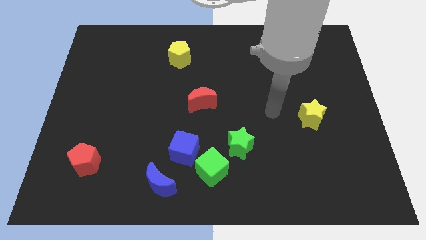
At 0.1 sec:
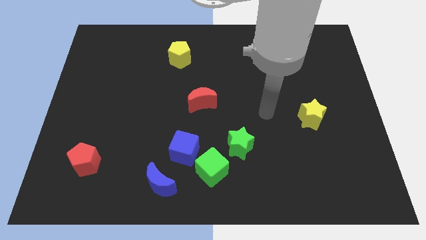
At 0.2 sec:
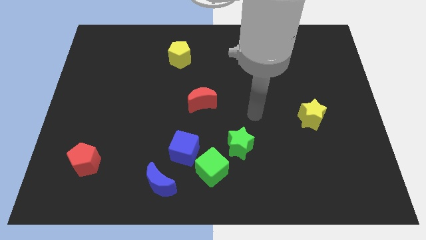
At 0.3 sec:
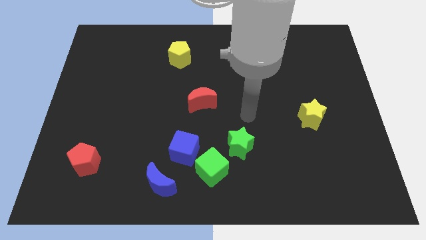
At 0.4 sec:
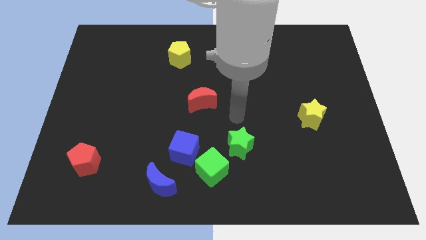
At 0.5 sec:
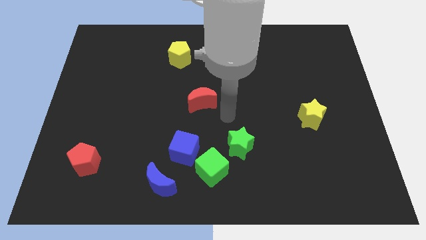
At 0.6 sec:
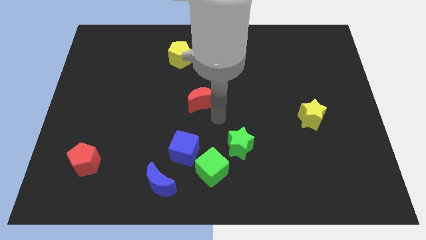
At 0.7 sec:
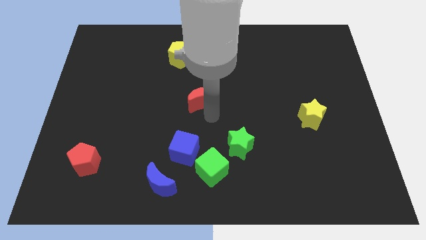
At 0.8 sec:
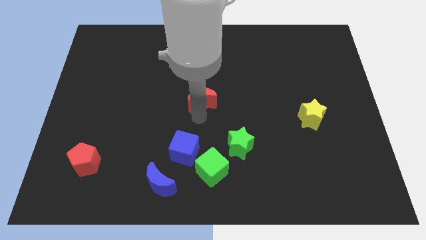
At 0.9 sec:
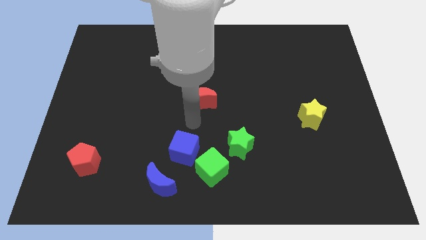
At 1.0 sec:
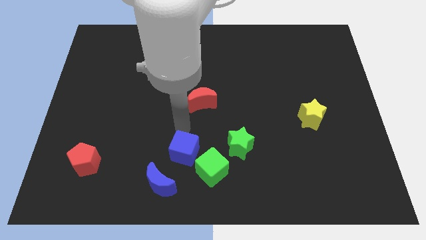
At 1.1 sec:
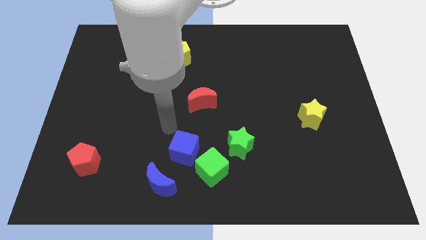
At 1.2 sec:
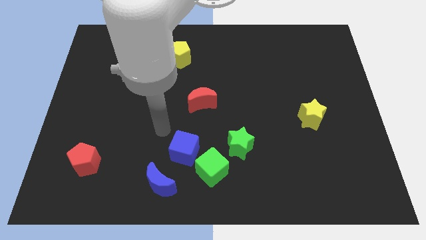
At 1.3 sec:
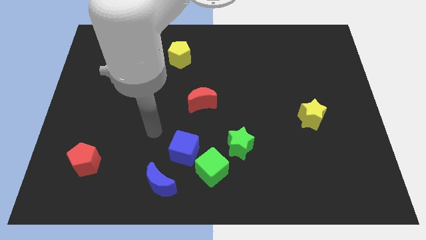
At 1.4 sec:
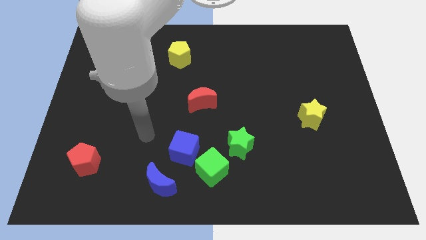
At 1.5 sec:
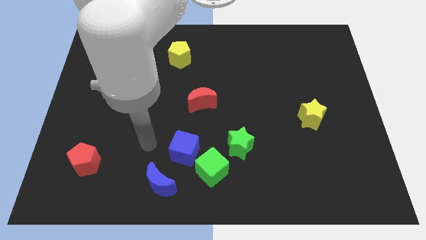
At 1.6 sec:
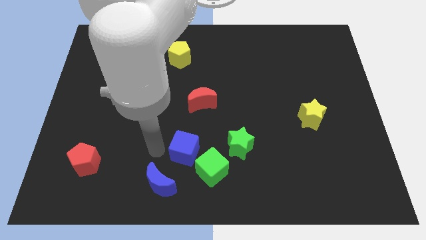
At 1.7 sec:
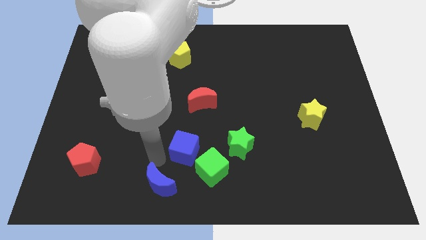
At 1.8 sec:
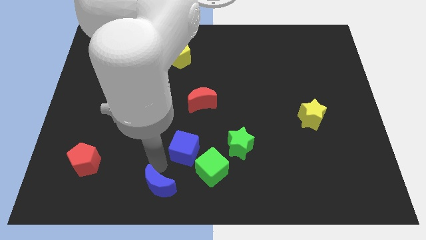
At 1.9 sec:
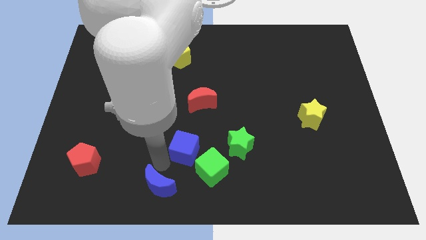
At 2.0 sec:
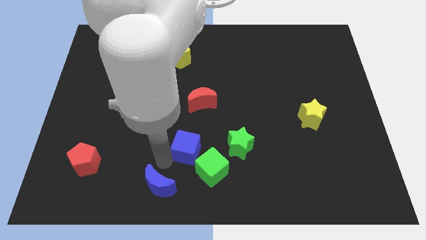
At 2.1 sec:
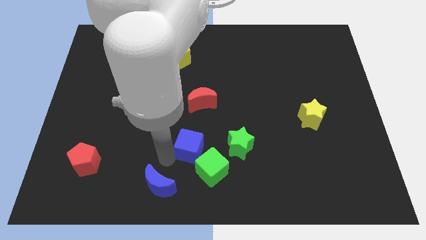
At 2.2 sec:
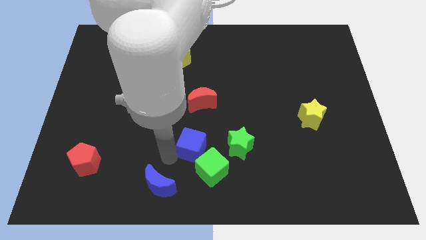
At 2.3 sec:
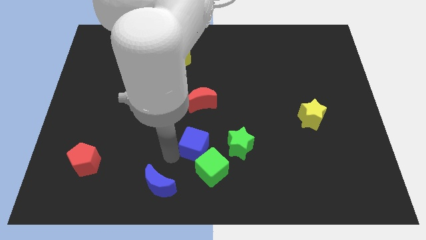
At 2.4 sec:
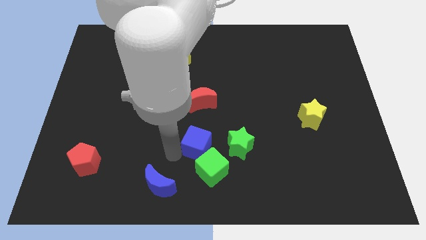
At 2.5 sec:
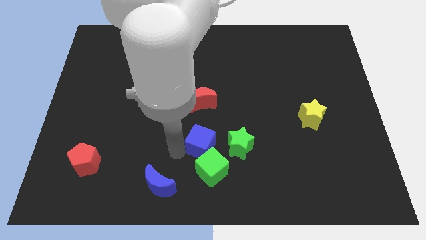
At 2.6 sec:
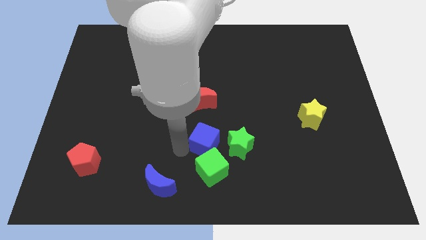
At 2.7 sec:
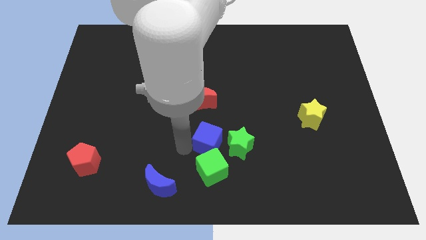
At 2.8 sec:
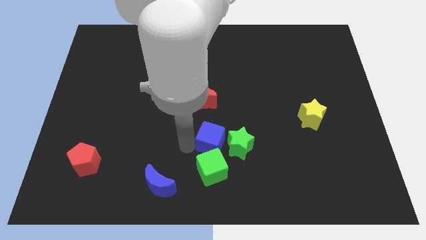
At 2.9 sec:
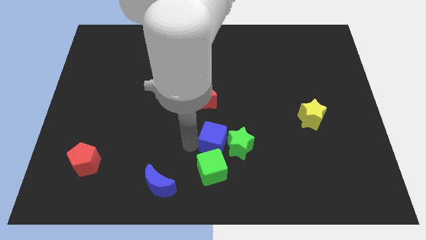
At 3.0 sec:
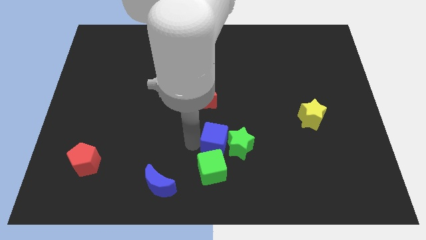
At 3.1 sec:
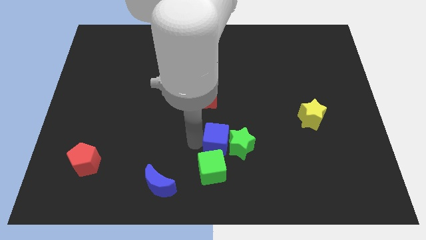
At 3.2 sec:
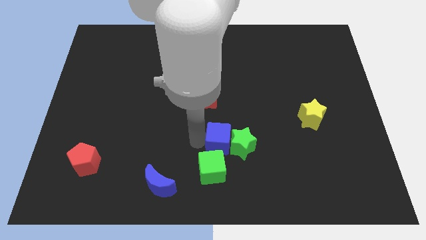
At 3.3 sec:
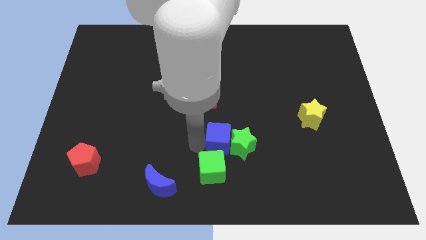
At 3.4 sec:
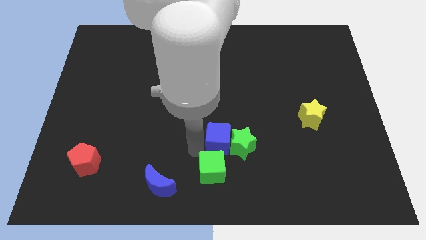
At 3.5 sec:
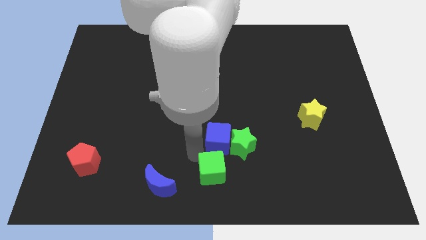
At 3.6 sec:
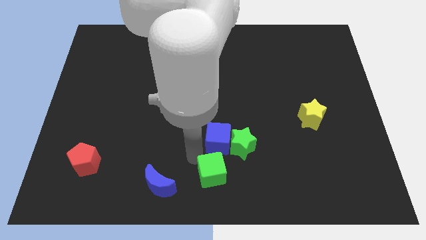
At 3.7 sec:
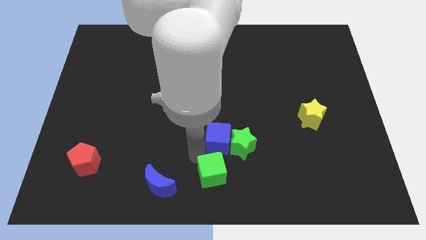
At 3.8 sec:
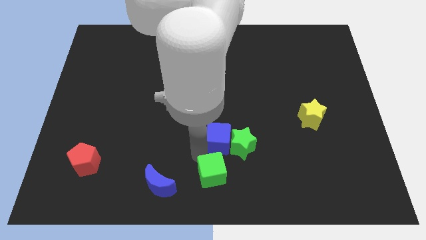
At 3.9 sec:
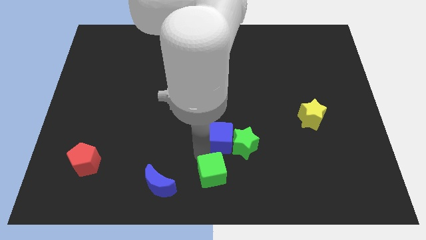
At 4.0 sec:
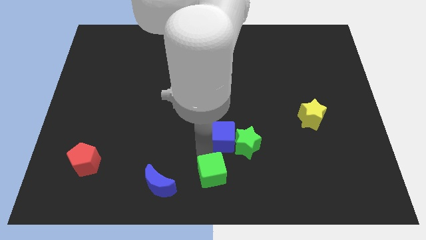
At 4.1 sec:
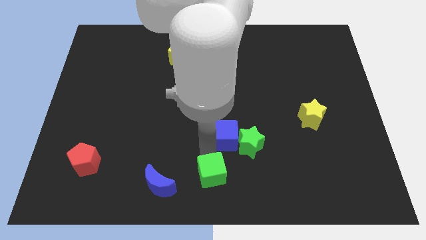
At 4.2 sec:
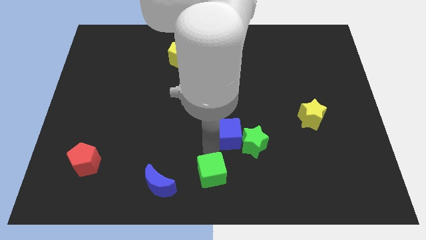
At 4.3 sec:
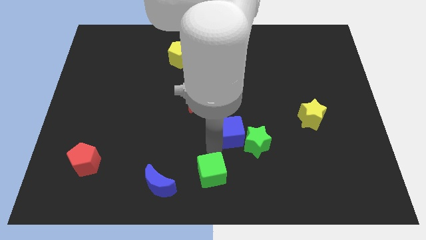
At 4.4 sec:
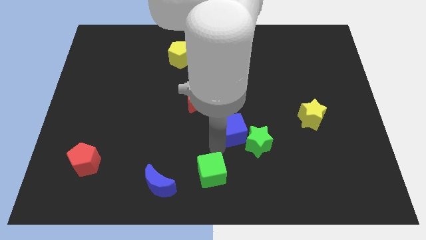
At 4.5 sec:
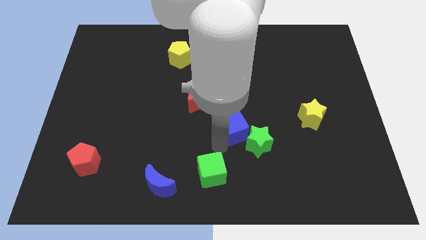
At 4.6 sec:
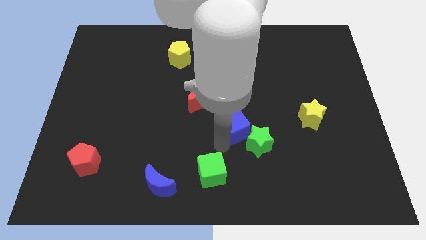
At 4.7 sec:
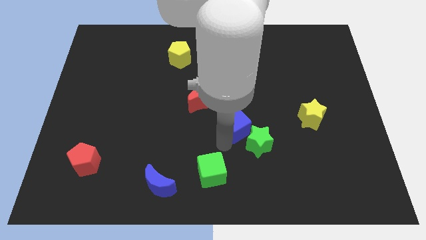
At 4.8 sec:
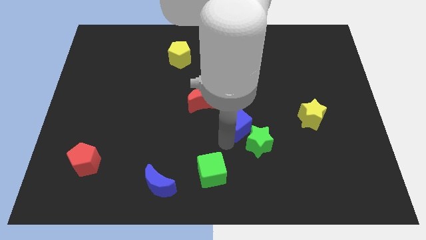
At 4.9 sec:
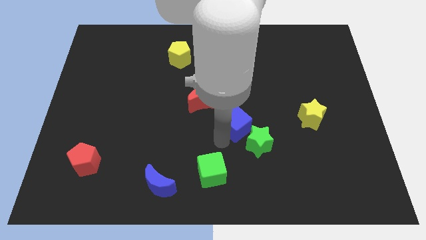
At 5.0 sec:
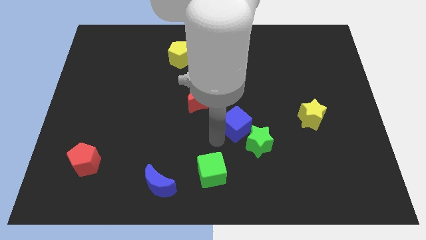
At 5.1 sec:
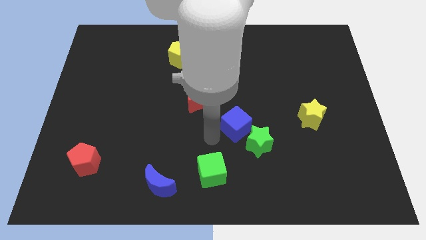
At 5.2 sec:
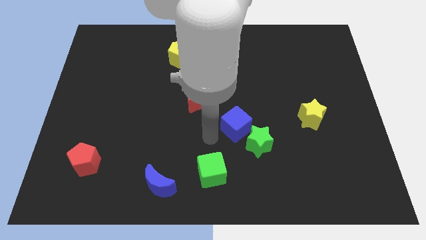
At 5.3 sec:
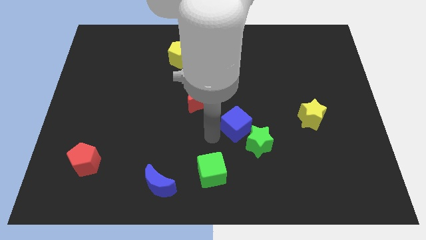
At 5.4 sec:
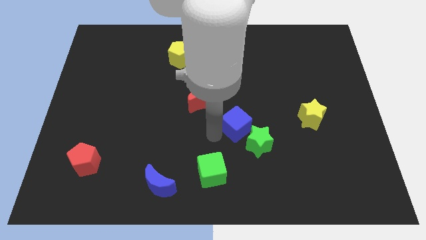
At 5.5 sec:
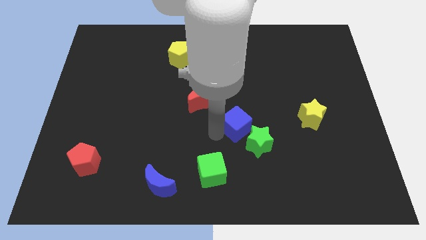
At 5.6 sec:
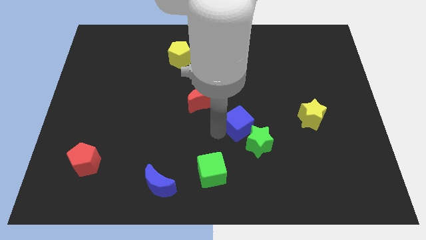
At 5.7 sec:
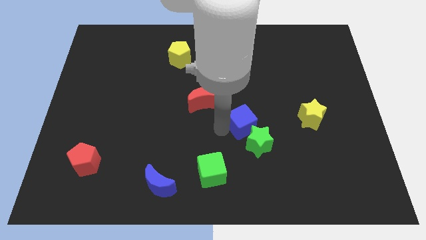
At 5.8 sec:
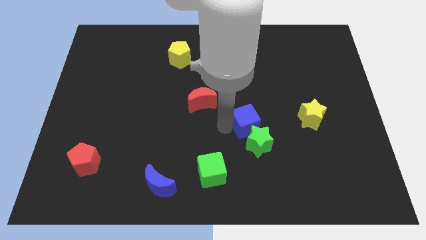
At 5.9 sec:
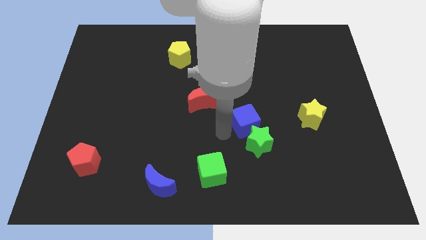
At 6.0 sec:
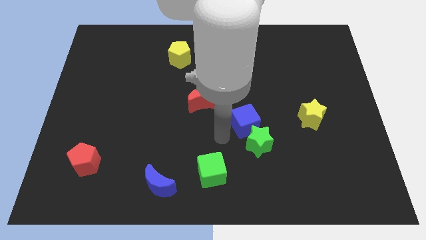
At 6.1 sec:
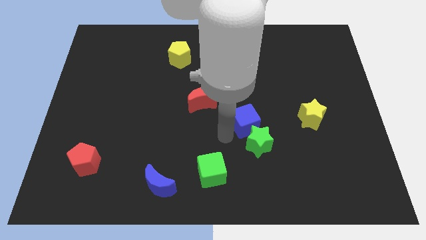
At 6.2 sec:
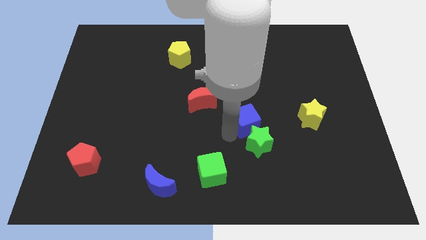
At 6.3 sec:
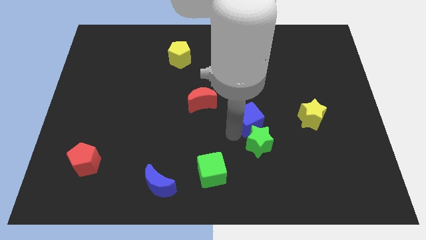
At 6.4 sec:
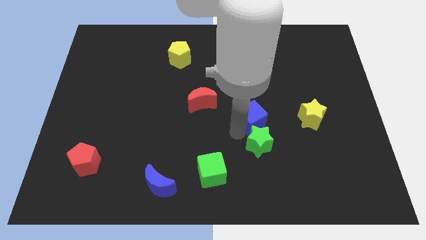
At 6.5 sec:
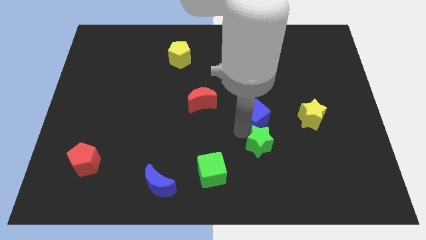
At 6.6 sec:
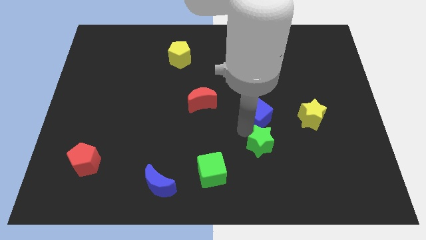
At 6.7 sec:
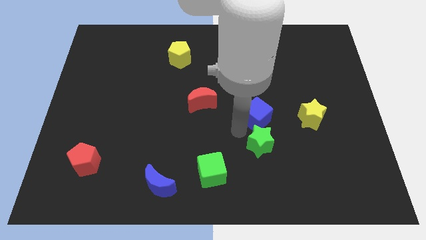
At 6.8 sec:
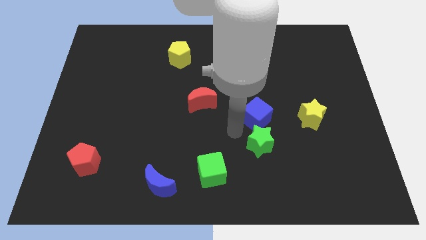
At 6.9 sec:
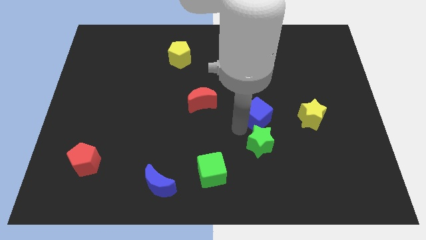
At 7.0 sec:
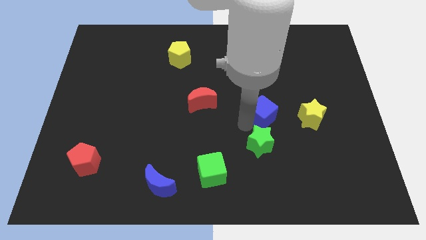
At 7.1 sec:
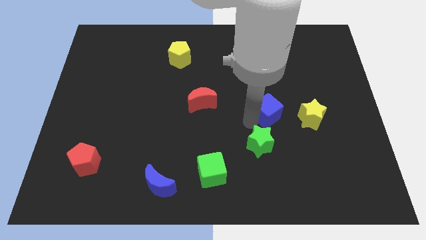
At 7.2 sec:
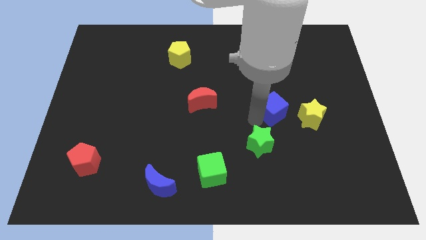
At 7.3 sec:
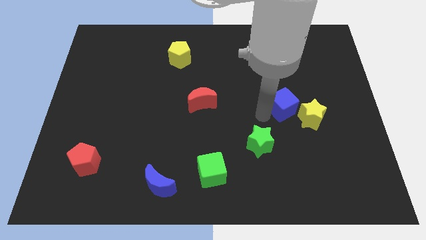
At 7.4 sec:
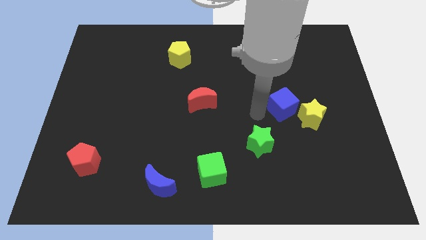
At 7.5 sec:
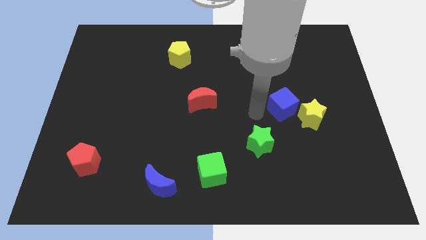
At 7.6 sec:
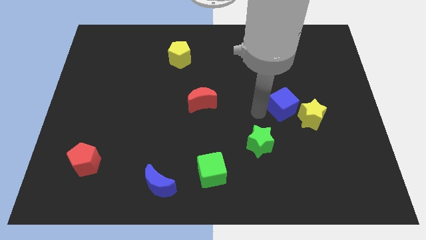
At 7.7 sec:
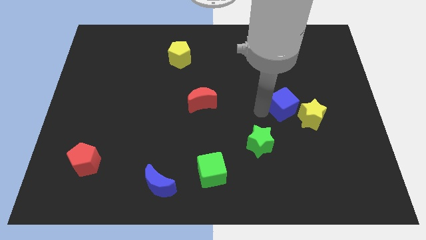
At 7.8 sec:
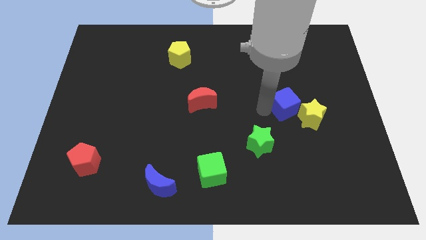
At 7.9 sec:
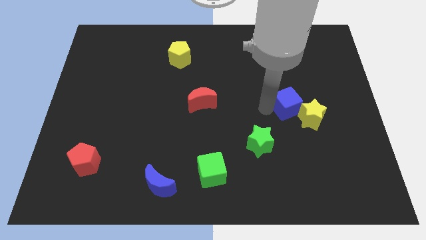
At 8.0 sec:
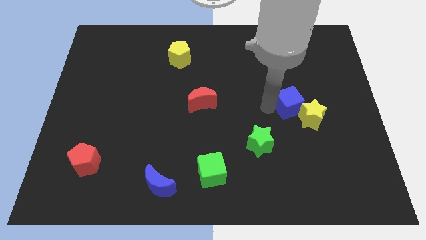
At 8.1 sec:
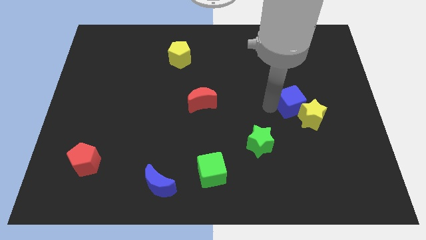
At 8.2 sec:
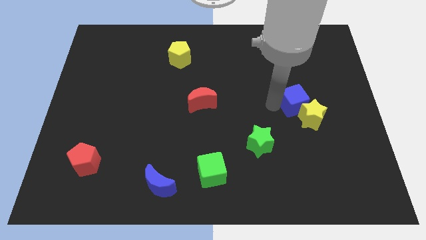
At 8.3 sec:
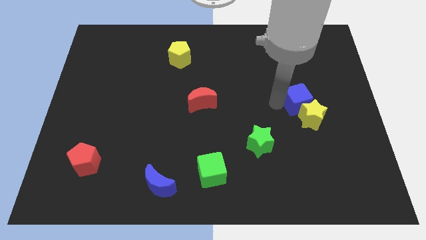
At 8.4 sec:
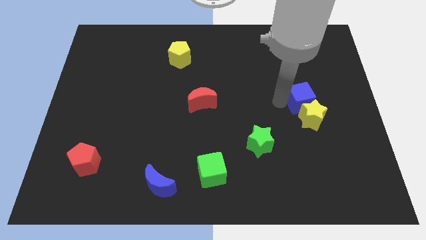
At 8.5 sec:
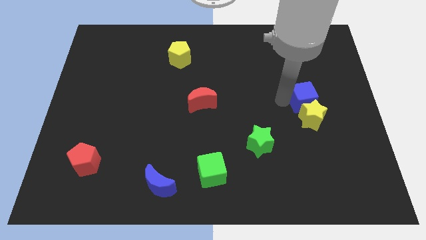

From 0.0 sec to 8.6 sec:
put the blue cube to the top right side of the yellow star
